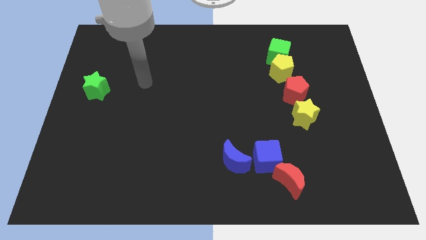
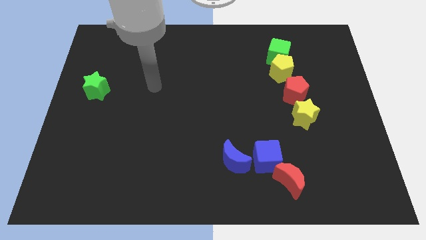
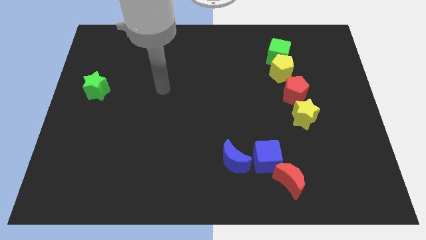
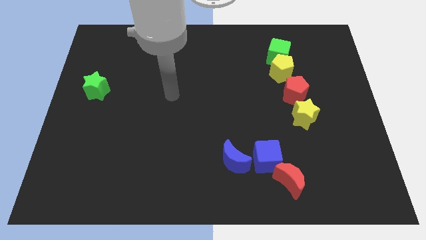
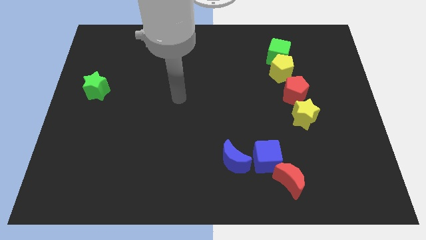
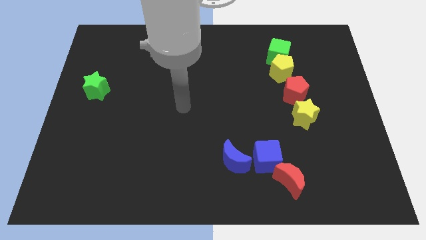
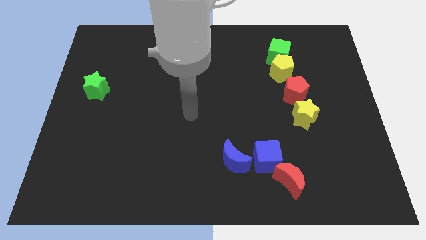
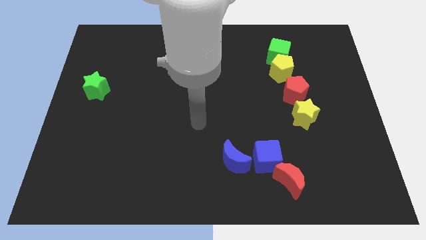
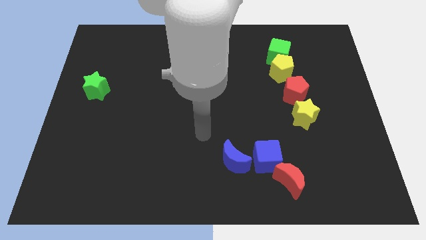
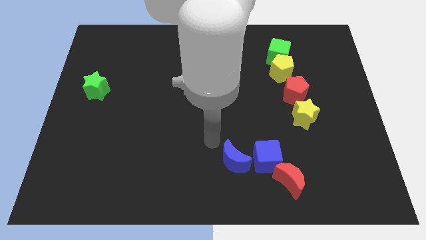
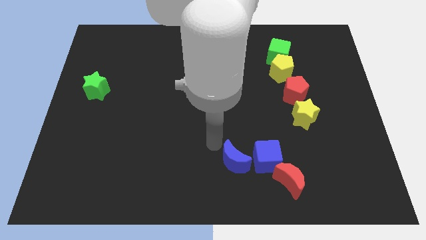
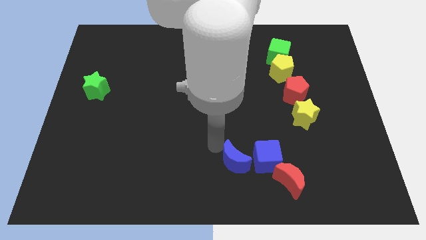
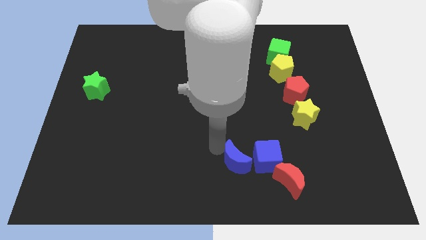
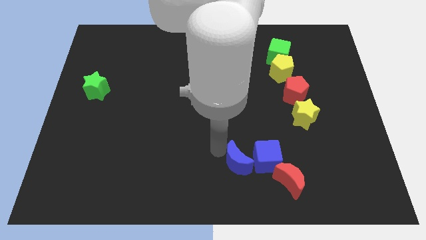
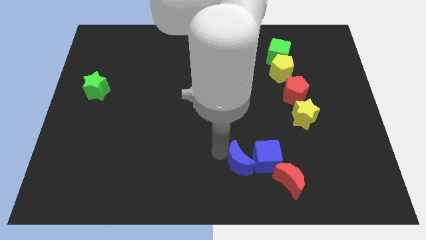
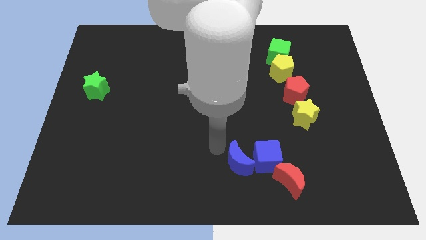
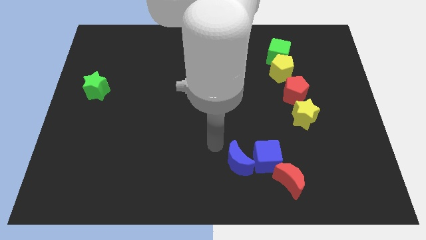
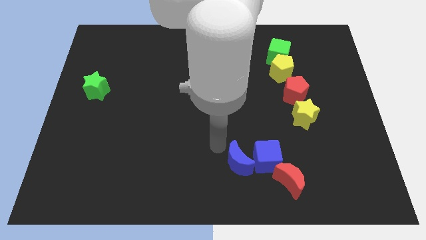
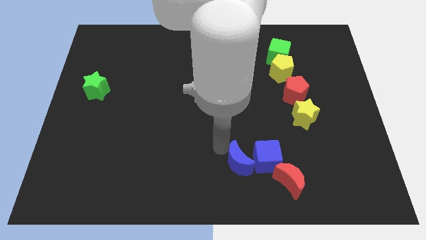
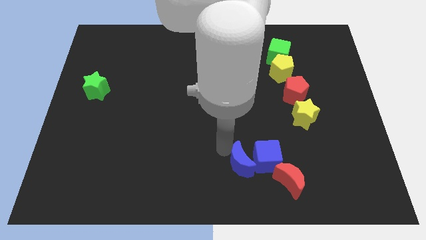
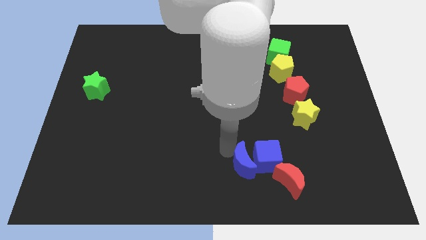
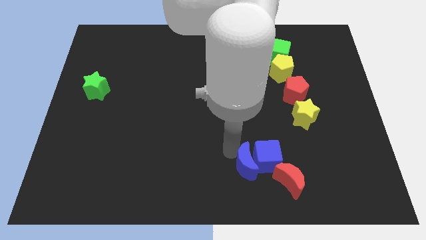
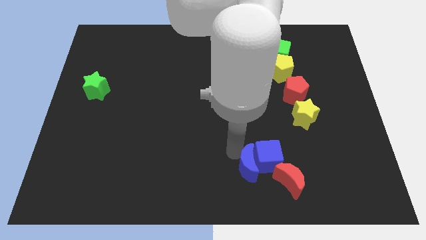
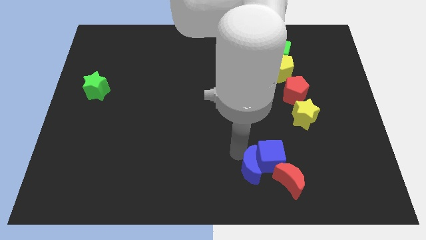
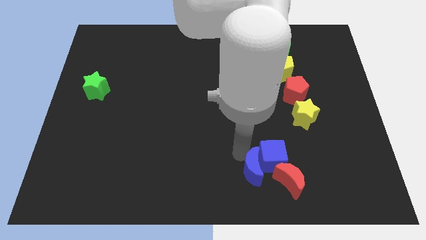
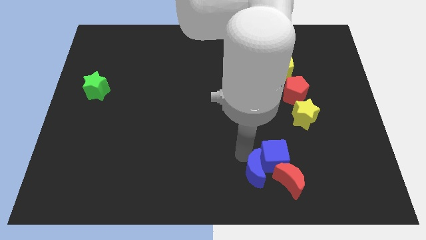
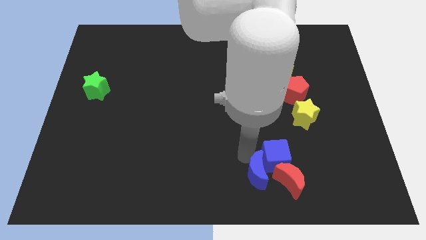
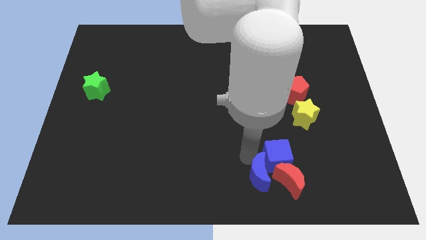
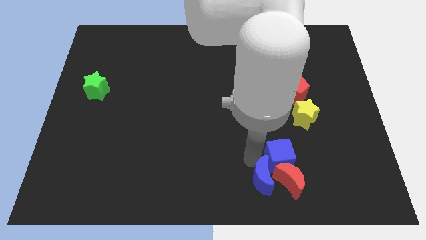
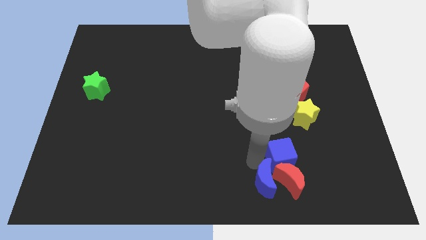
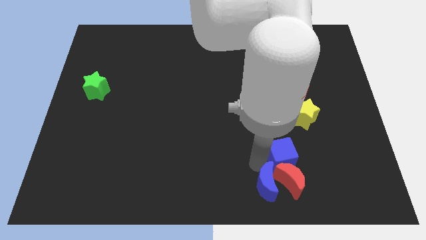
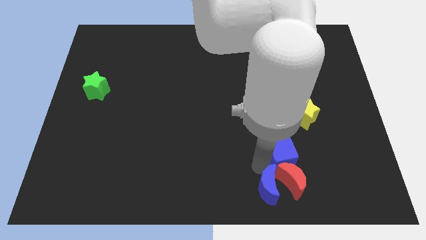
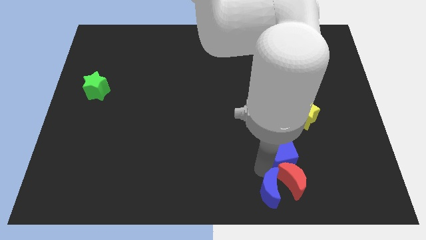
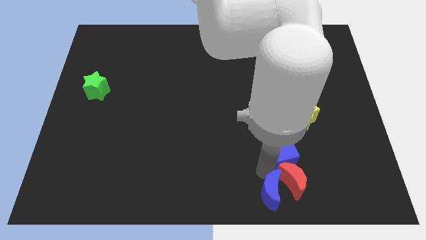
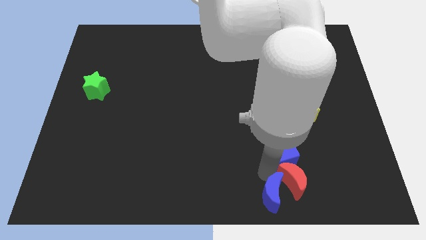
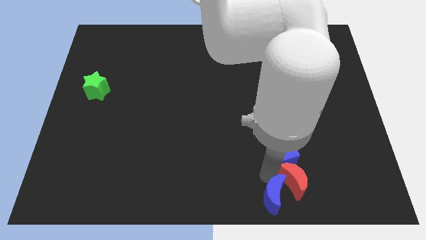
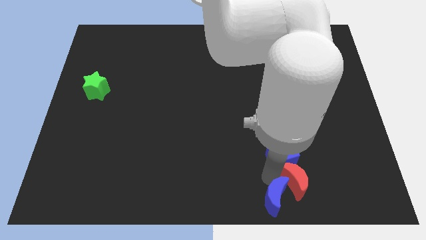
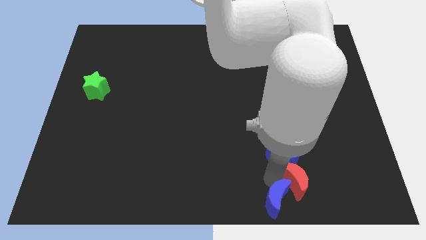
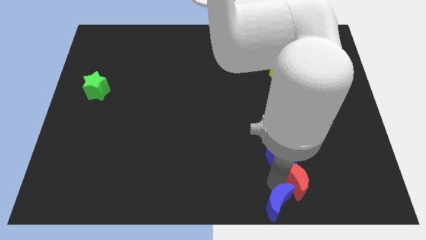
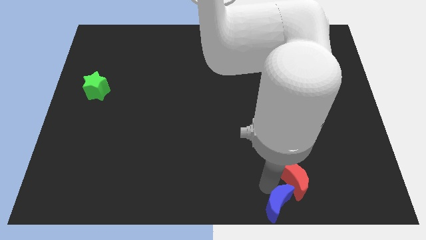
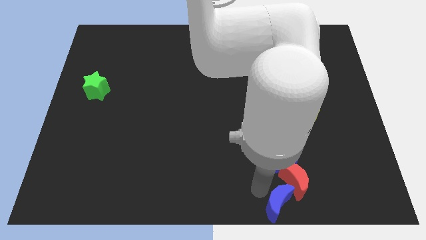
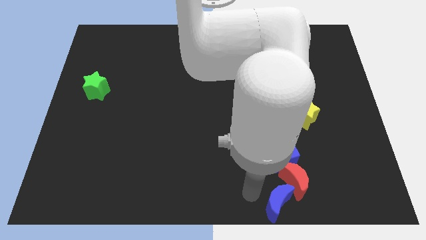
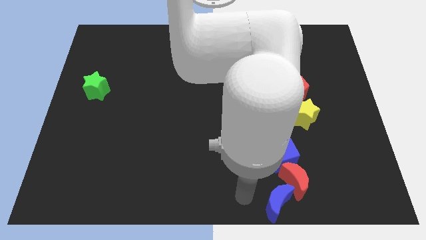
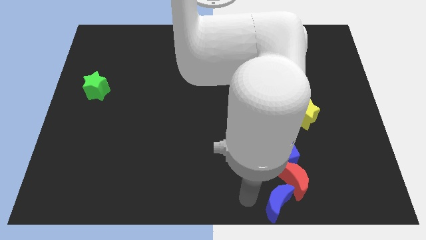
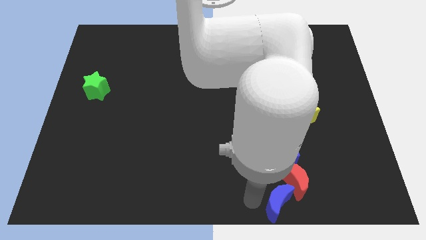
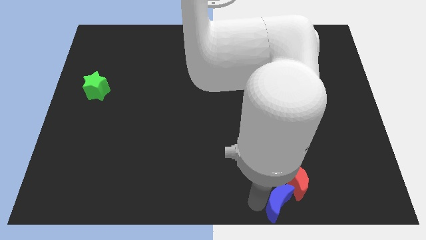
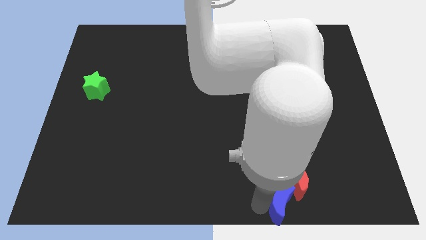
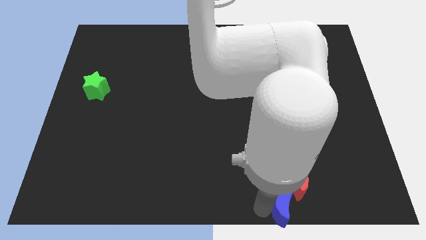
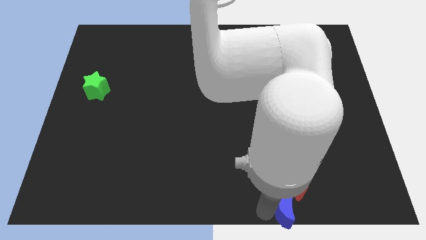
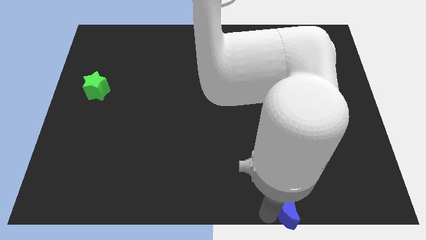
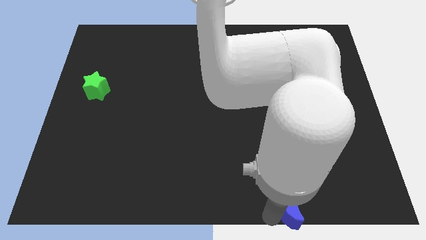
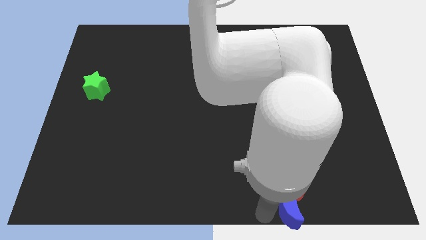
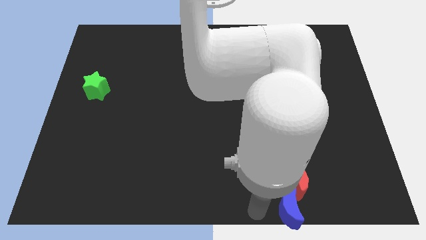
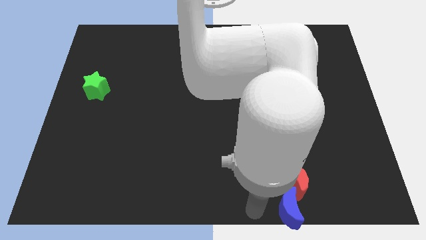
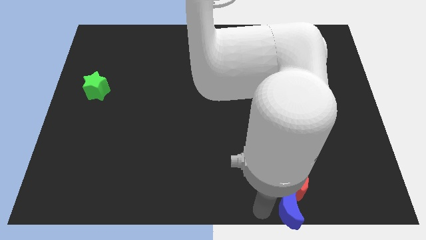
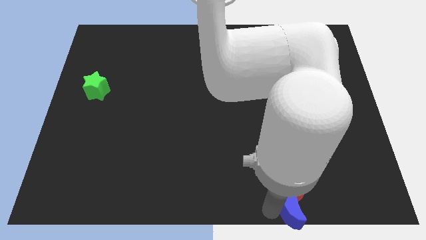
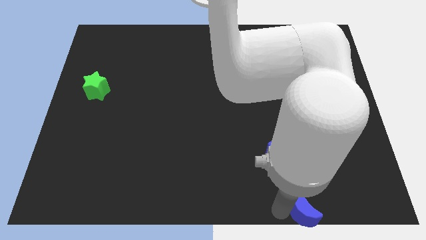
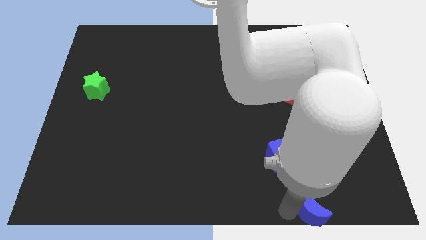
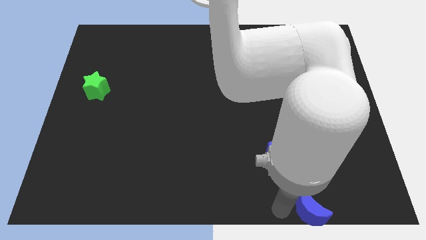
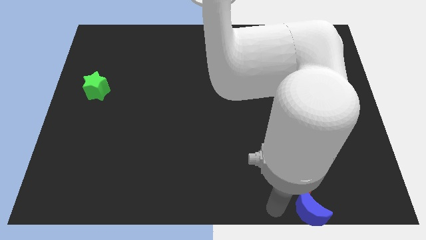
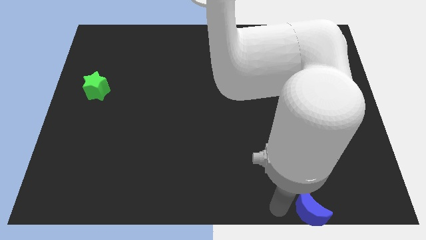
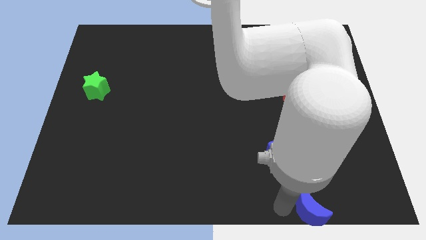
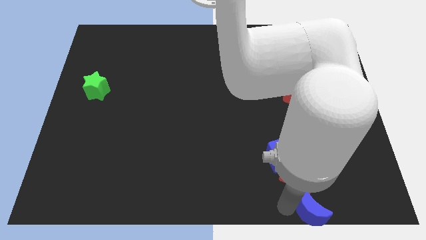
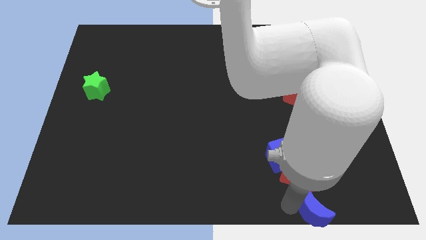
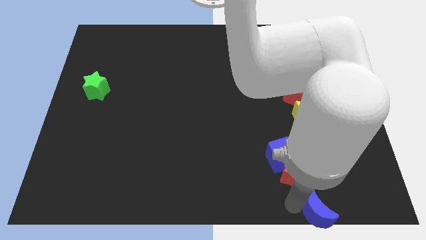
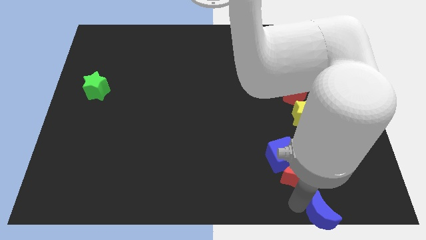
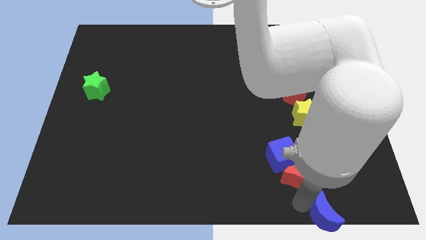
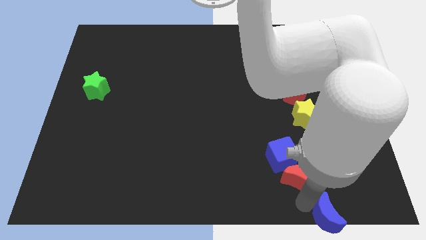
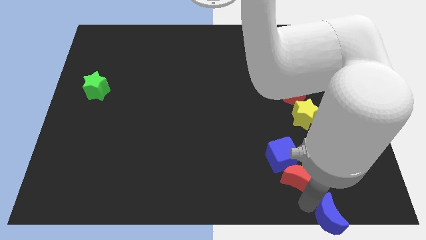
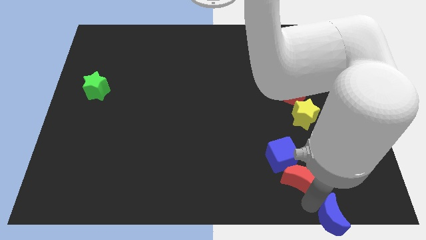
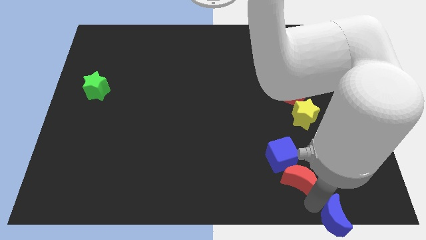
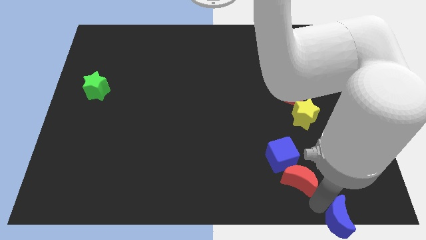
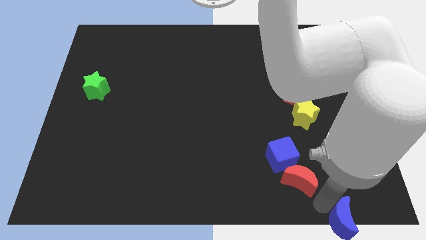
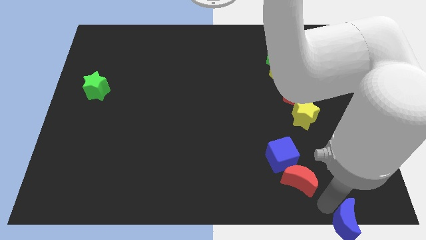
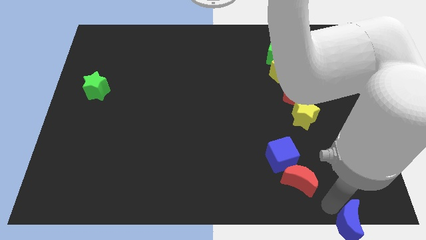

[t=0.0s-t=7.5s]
move the blue moon to the lower right corner

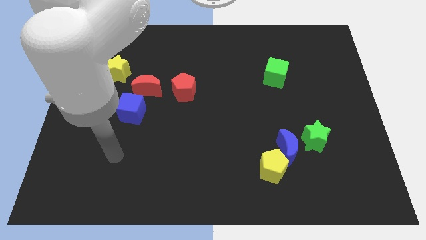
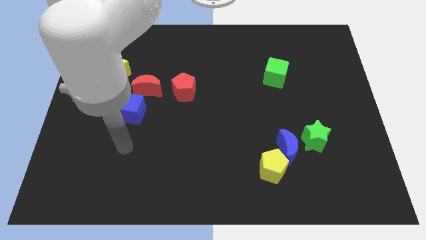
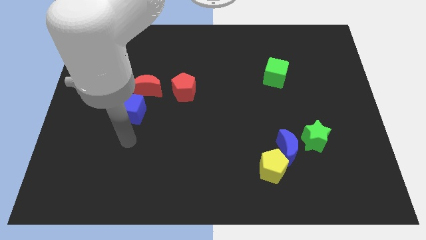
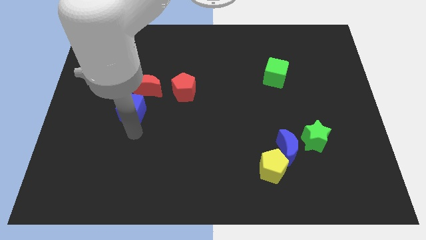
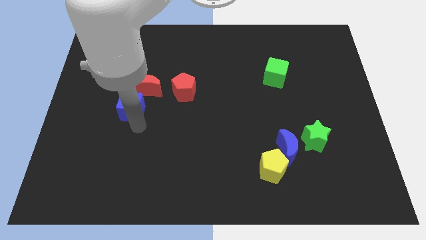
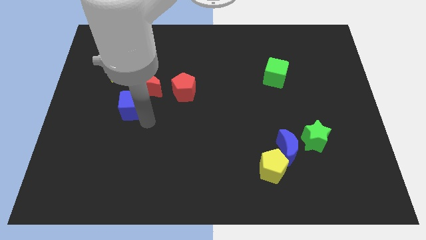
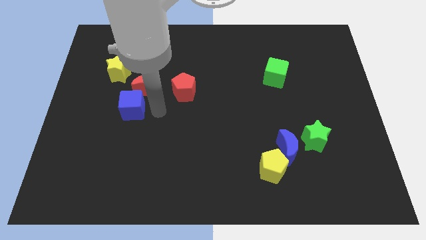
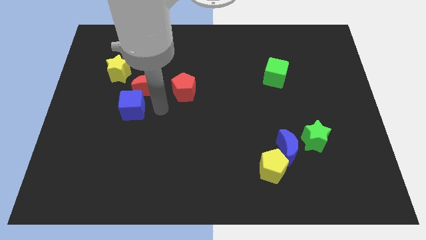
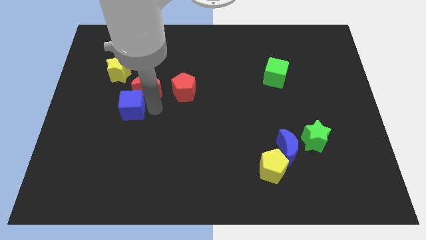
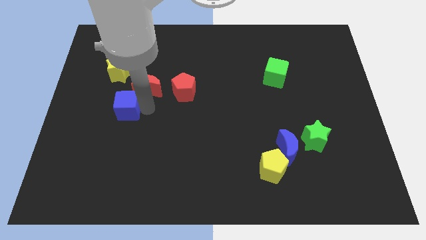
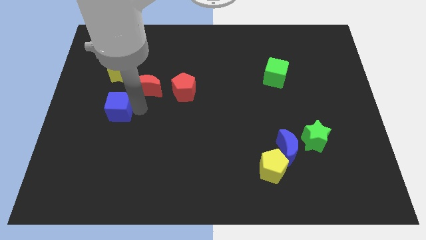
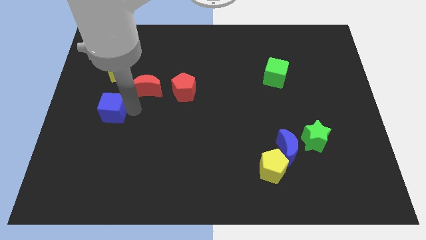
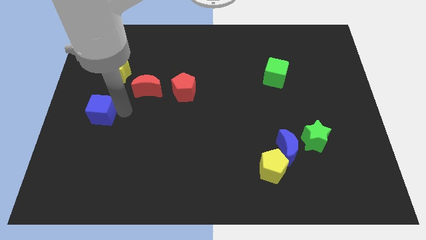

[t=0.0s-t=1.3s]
put the blue cube to the left side
